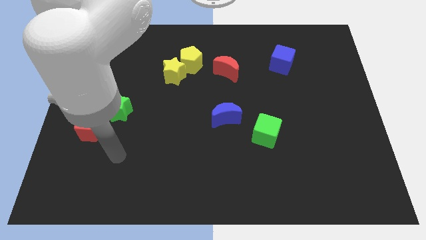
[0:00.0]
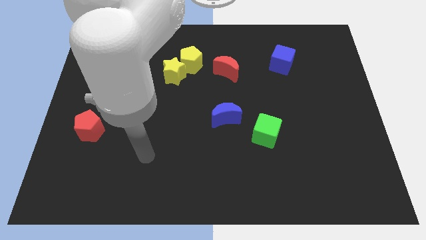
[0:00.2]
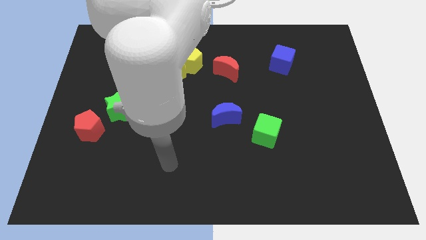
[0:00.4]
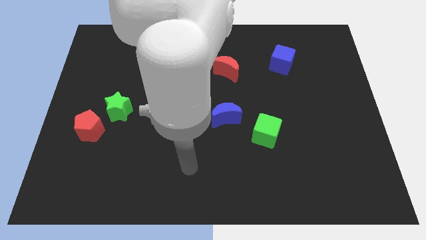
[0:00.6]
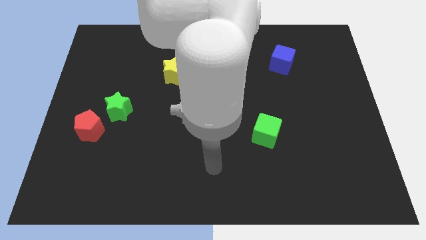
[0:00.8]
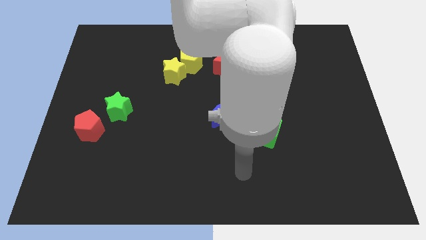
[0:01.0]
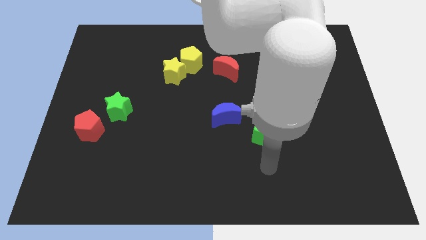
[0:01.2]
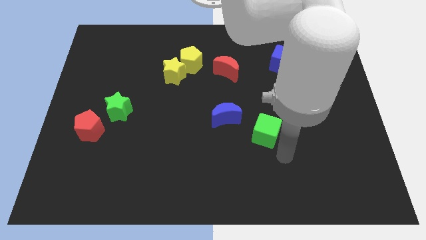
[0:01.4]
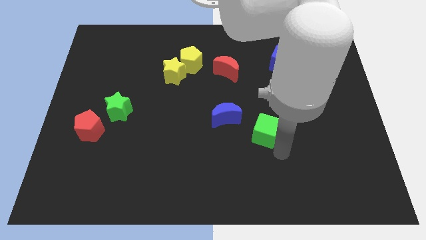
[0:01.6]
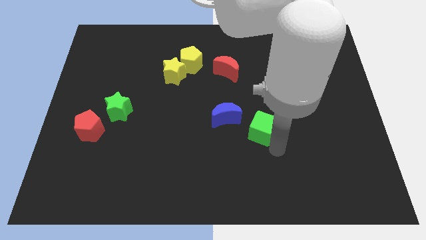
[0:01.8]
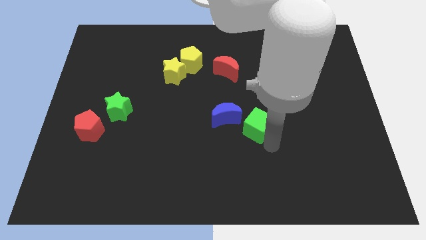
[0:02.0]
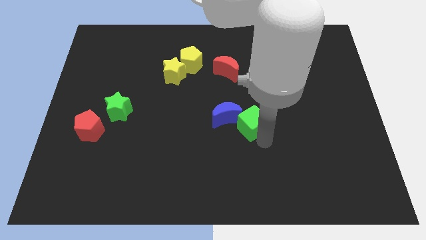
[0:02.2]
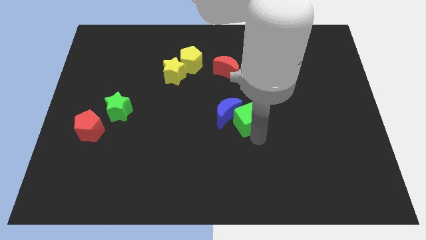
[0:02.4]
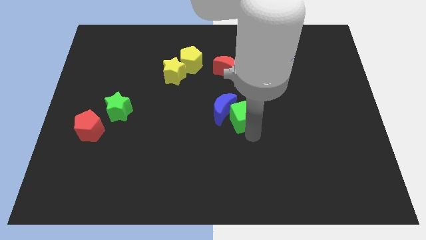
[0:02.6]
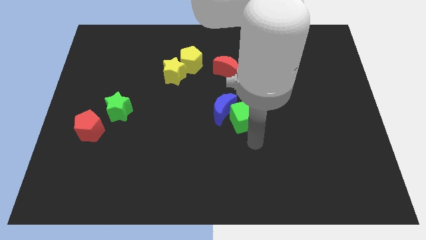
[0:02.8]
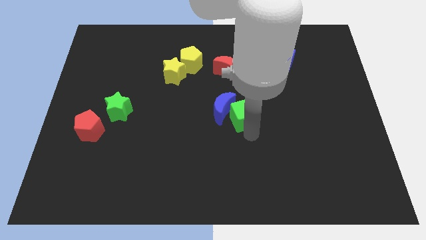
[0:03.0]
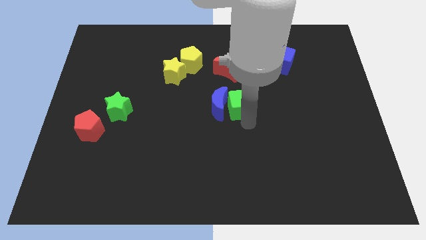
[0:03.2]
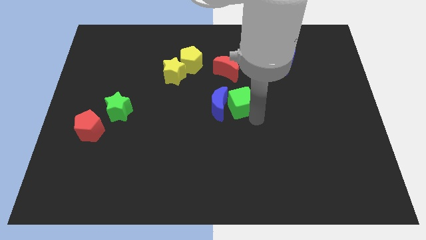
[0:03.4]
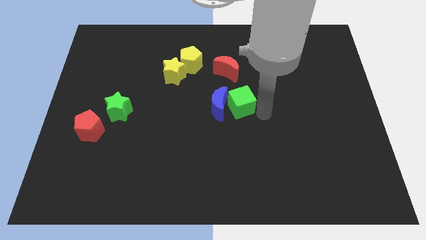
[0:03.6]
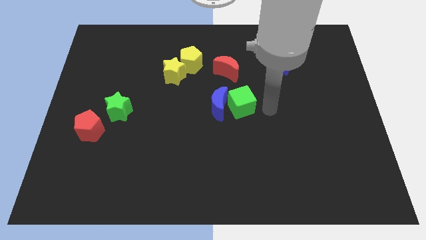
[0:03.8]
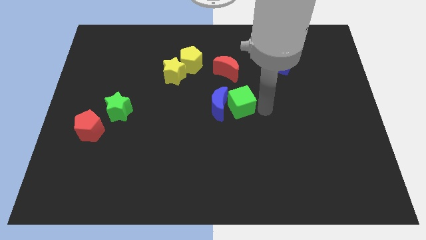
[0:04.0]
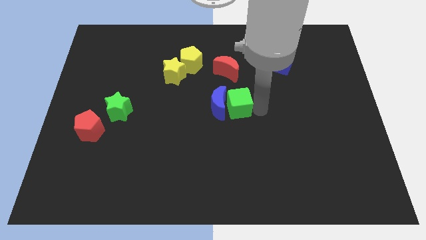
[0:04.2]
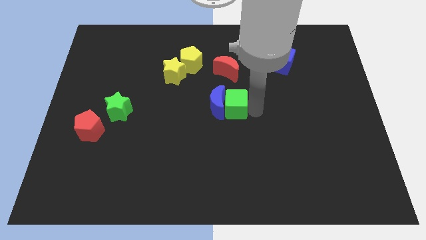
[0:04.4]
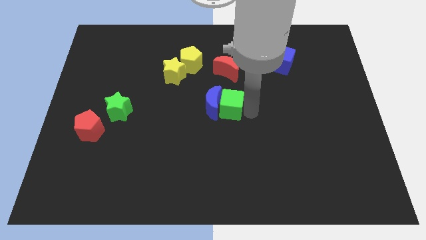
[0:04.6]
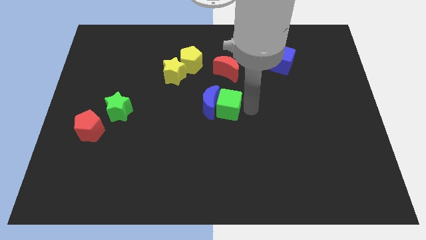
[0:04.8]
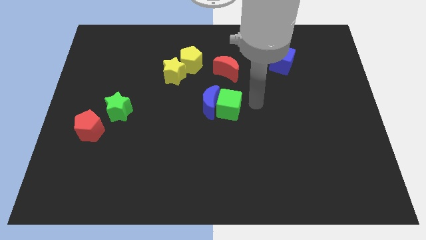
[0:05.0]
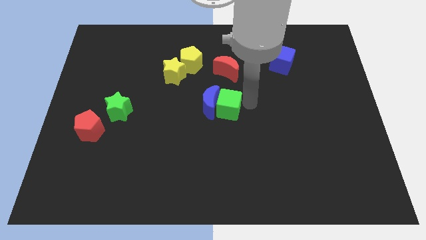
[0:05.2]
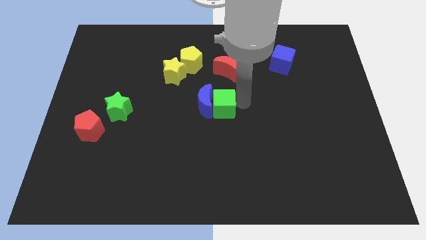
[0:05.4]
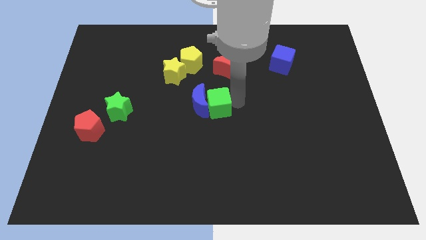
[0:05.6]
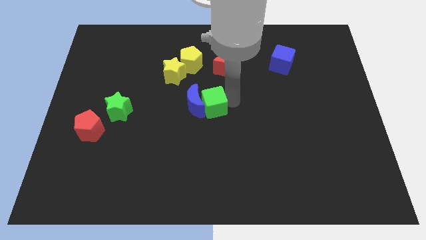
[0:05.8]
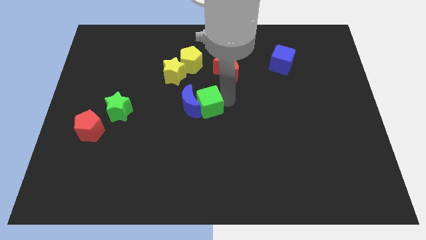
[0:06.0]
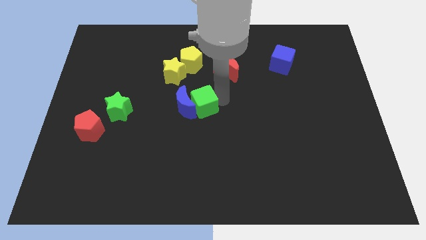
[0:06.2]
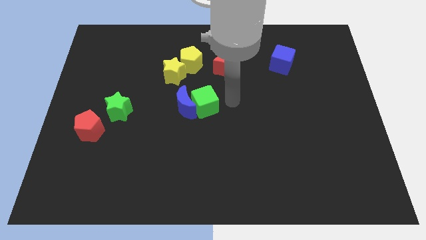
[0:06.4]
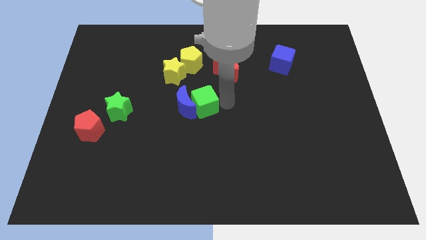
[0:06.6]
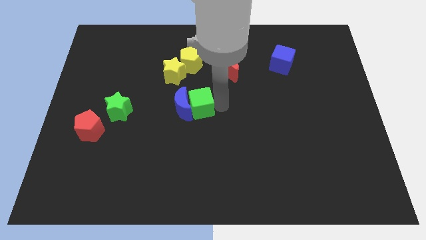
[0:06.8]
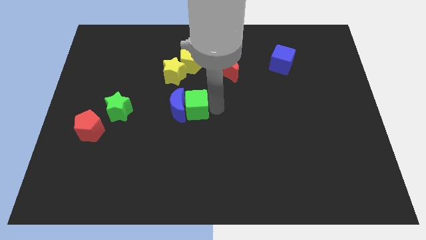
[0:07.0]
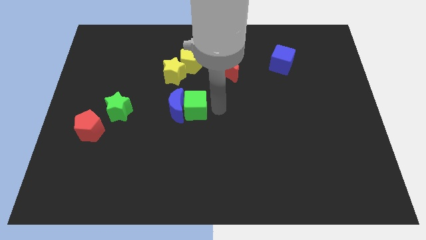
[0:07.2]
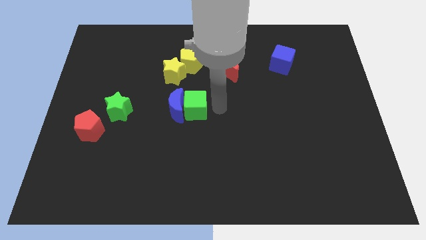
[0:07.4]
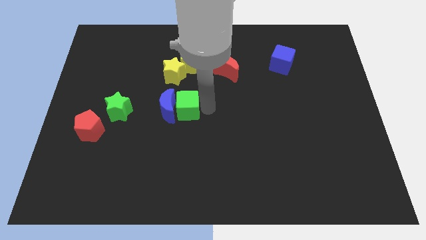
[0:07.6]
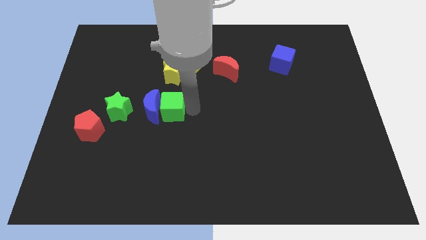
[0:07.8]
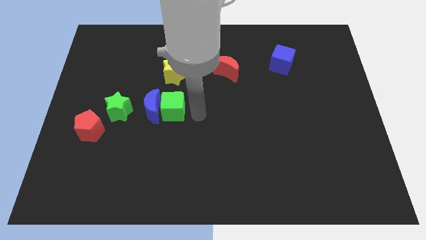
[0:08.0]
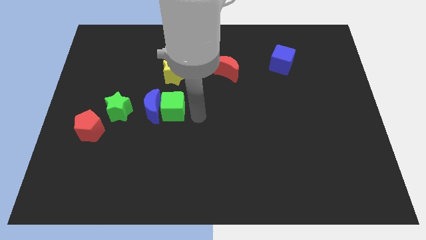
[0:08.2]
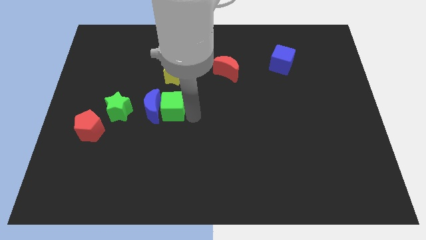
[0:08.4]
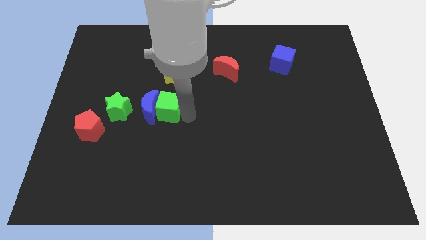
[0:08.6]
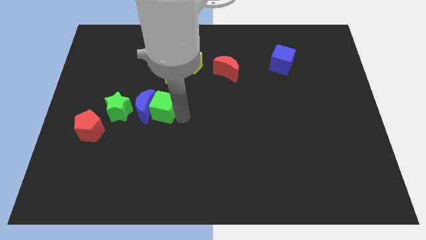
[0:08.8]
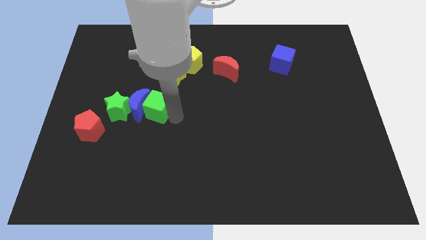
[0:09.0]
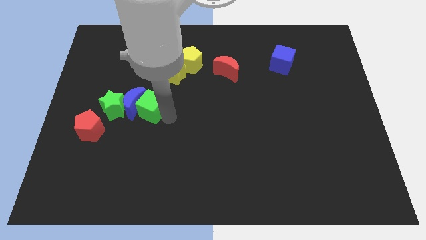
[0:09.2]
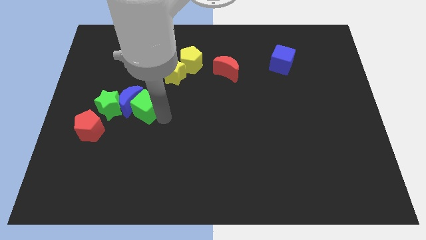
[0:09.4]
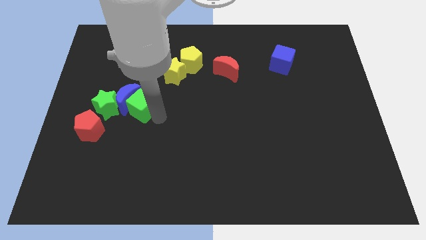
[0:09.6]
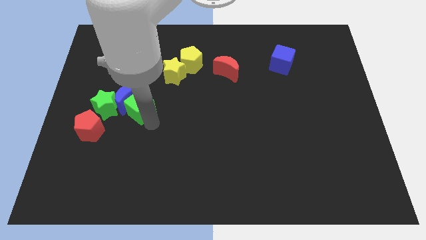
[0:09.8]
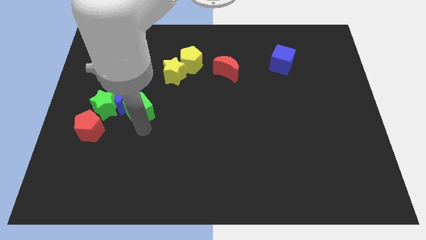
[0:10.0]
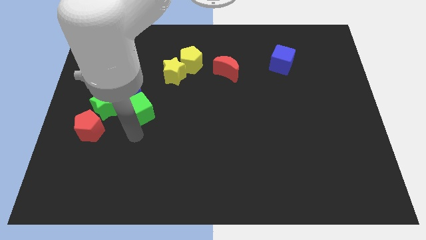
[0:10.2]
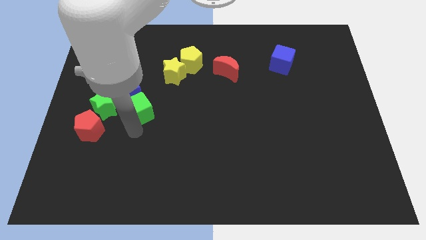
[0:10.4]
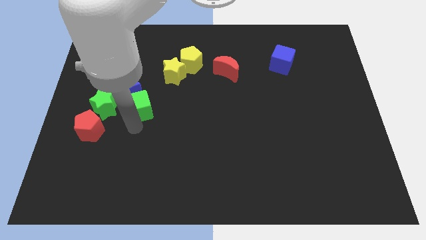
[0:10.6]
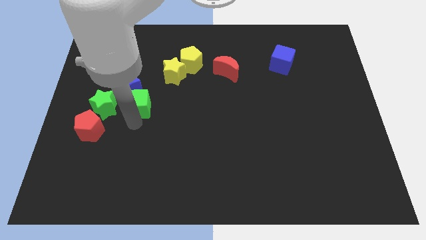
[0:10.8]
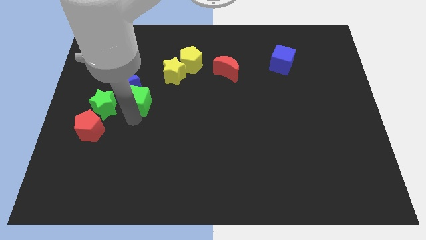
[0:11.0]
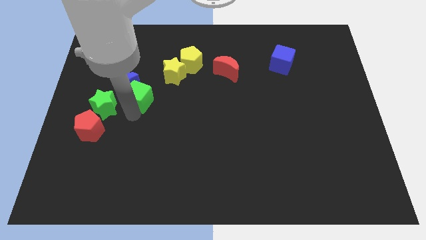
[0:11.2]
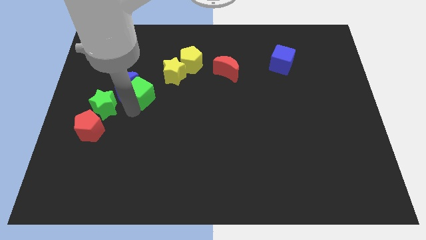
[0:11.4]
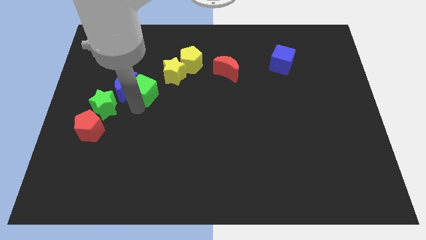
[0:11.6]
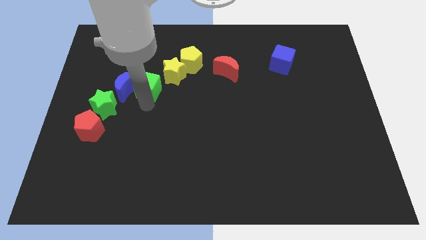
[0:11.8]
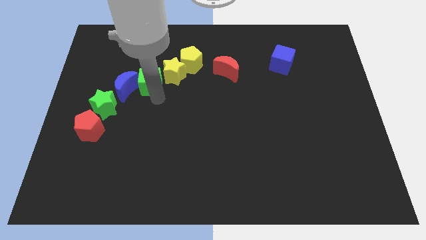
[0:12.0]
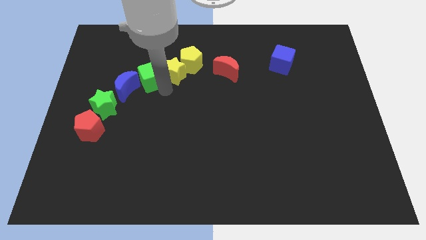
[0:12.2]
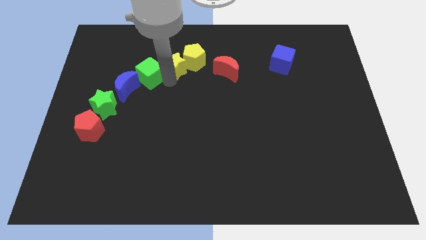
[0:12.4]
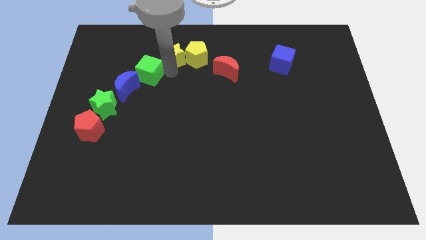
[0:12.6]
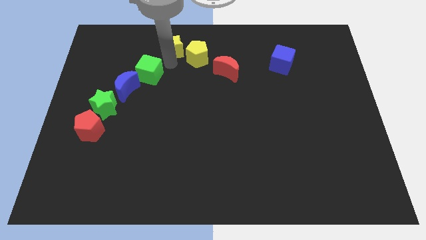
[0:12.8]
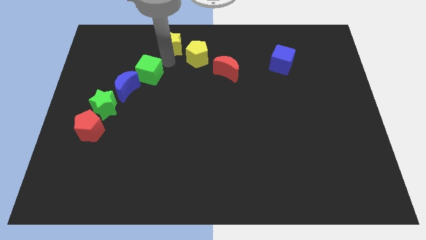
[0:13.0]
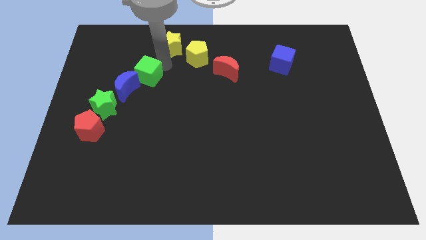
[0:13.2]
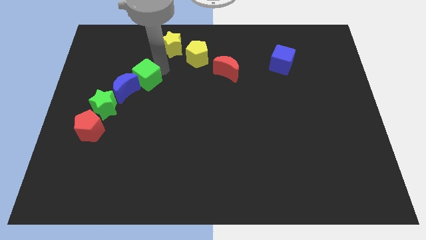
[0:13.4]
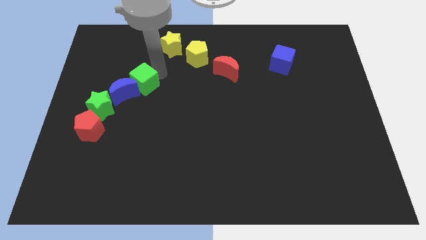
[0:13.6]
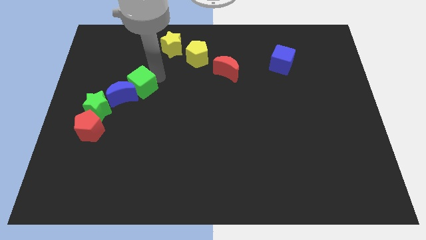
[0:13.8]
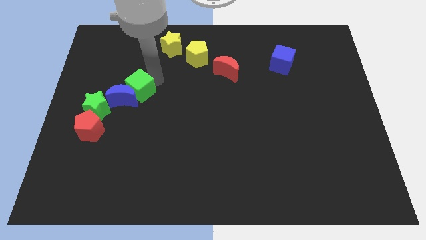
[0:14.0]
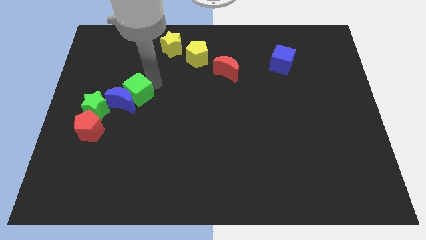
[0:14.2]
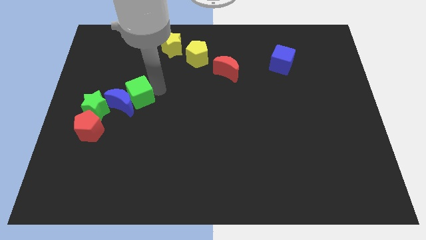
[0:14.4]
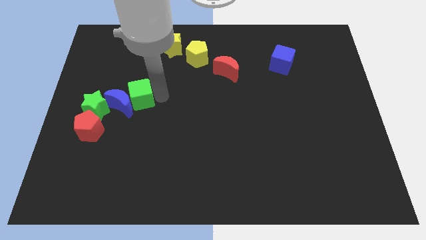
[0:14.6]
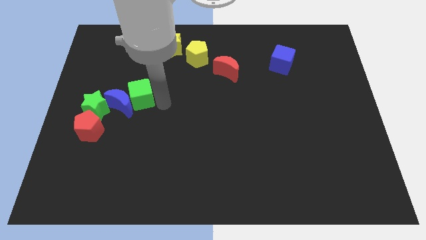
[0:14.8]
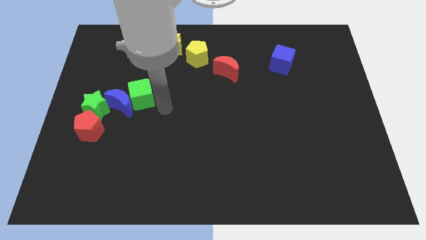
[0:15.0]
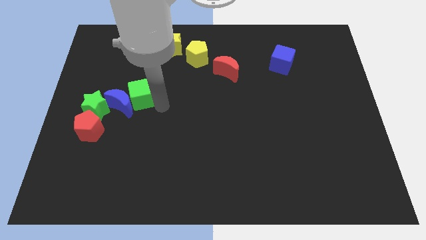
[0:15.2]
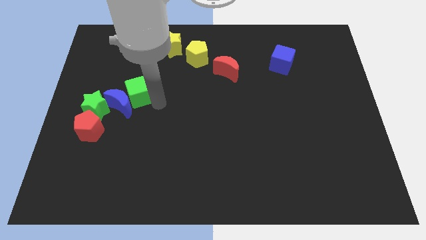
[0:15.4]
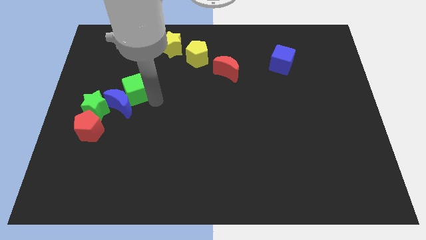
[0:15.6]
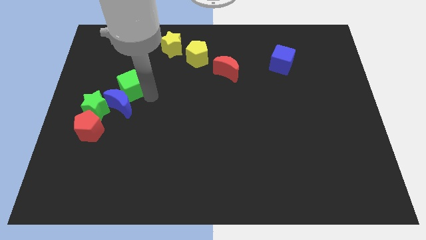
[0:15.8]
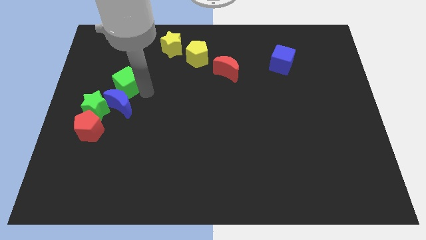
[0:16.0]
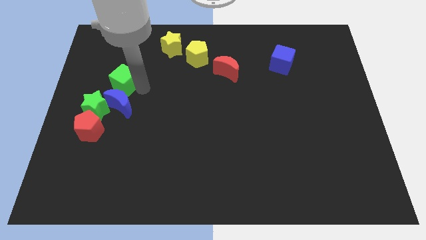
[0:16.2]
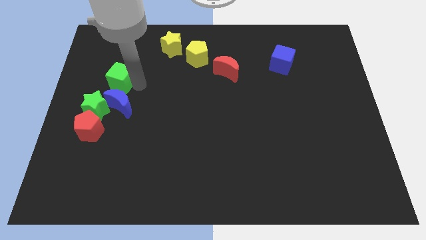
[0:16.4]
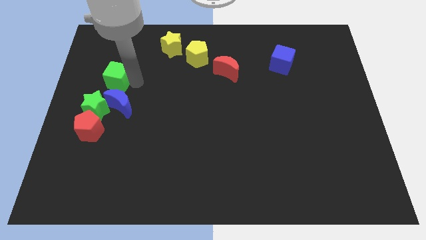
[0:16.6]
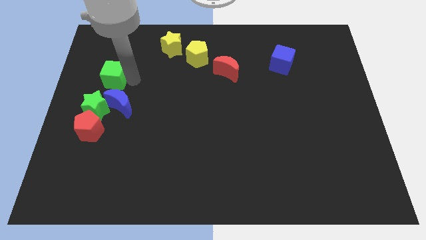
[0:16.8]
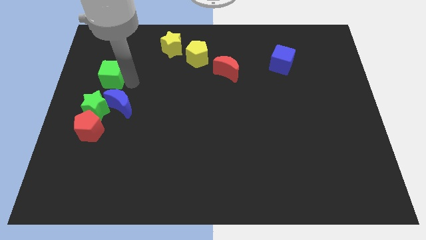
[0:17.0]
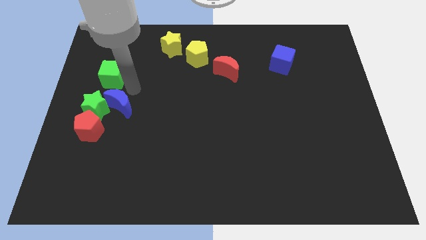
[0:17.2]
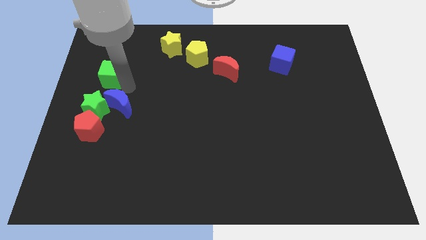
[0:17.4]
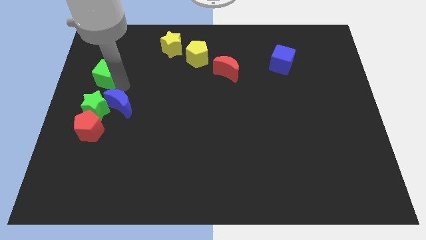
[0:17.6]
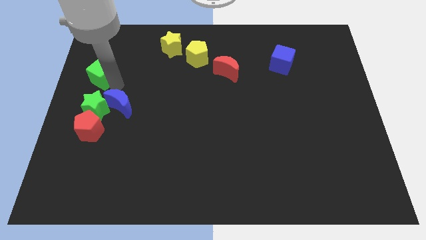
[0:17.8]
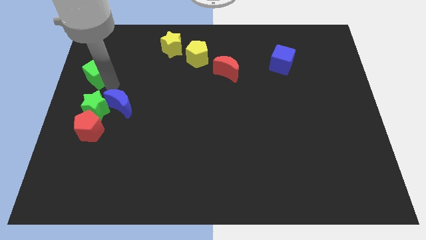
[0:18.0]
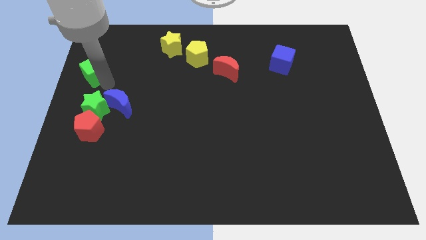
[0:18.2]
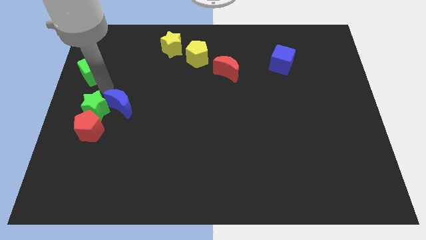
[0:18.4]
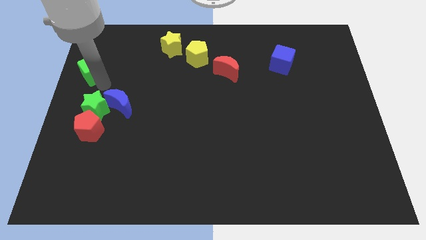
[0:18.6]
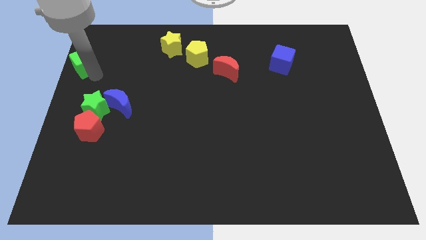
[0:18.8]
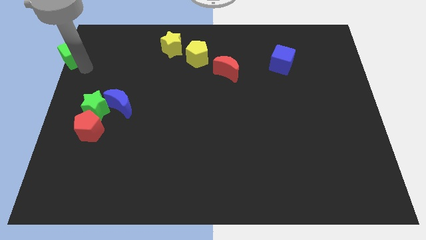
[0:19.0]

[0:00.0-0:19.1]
put the green cube to the top left corner
